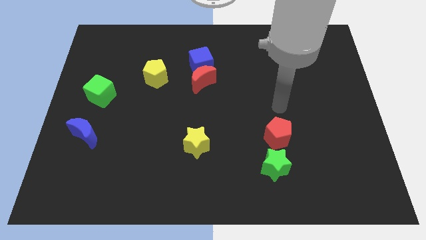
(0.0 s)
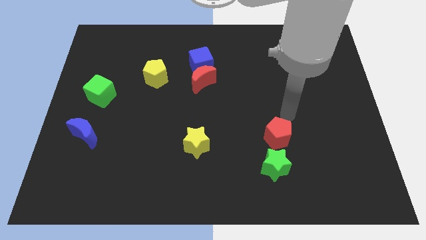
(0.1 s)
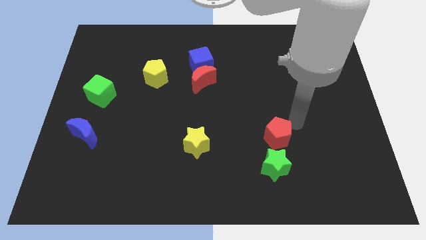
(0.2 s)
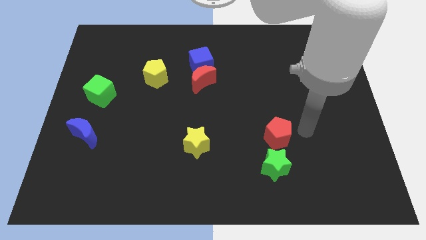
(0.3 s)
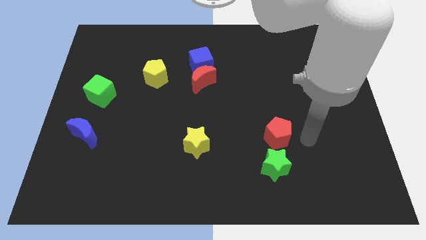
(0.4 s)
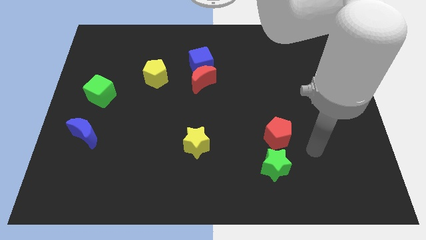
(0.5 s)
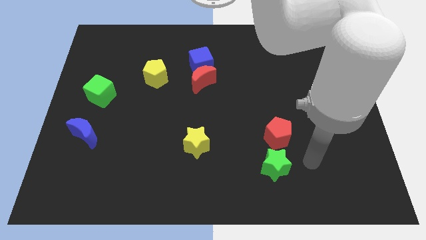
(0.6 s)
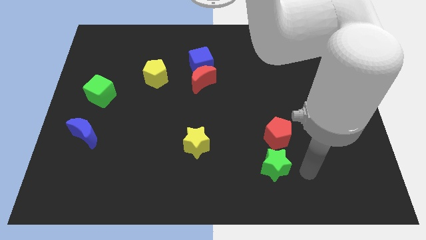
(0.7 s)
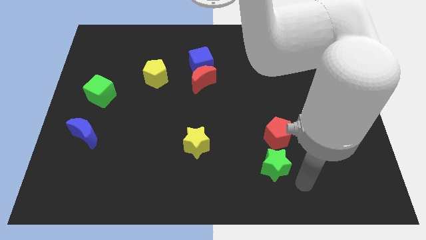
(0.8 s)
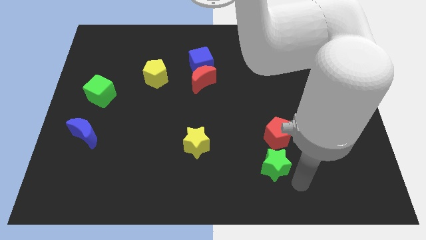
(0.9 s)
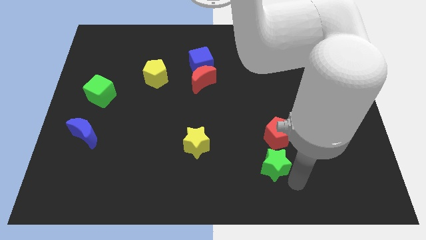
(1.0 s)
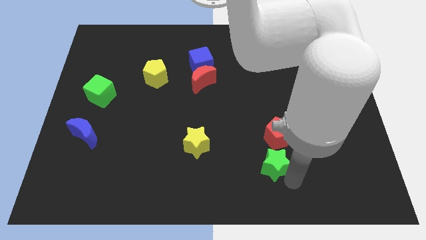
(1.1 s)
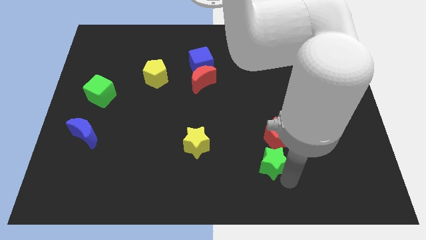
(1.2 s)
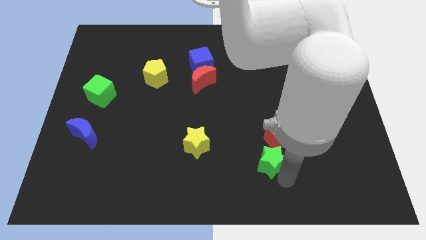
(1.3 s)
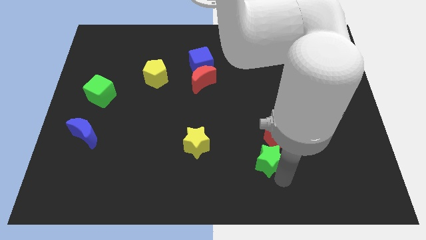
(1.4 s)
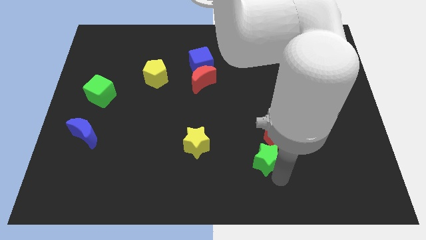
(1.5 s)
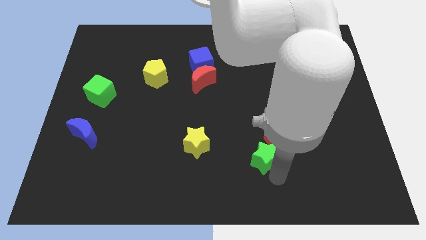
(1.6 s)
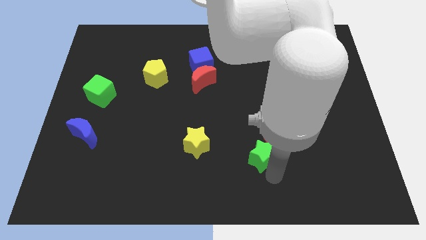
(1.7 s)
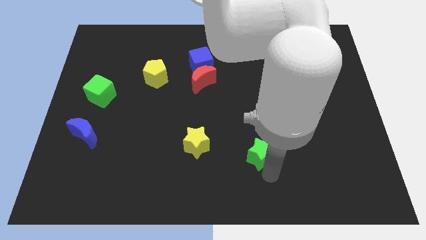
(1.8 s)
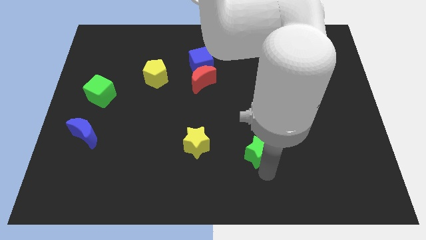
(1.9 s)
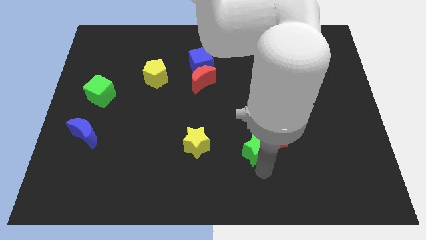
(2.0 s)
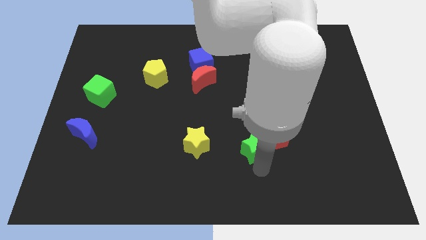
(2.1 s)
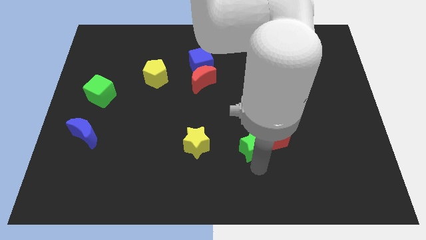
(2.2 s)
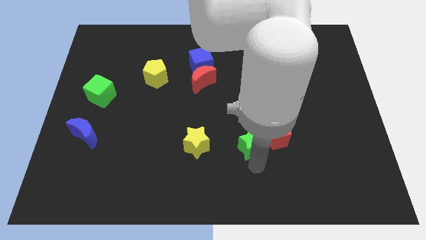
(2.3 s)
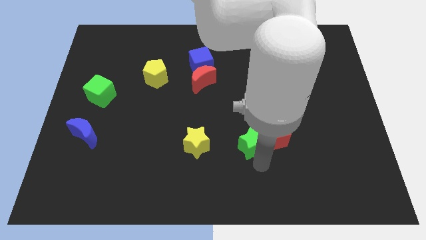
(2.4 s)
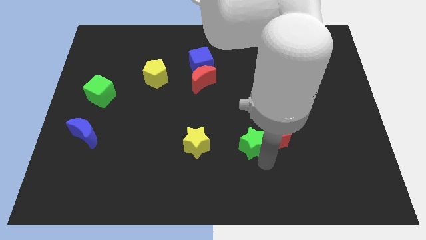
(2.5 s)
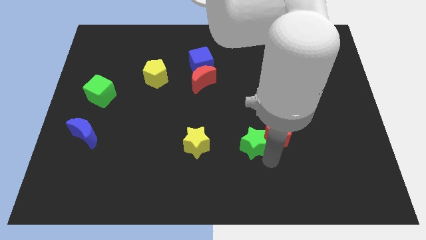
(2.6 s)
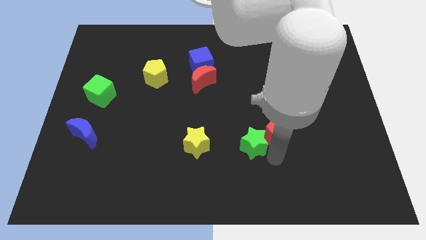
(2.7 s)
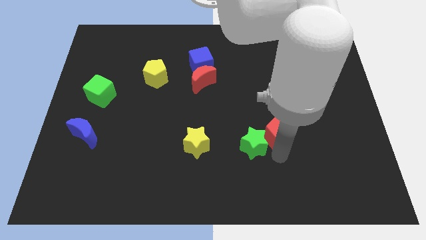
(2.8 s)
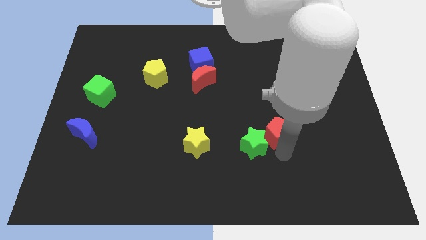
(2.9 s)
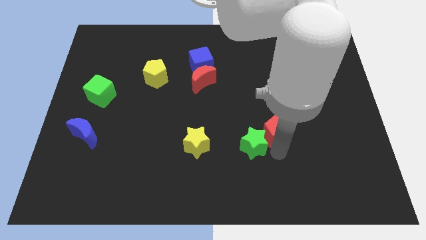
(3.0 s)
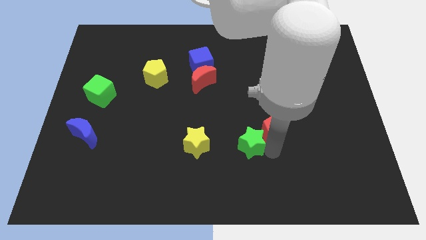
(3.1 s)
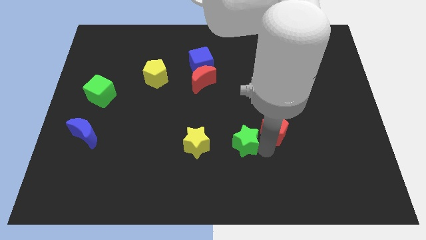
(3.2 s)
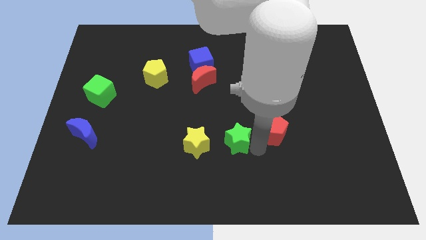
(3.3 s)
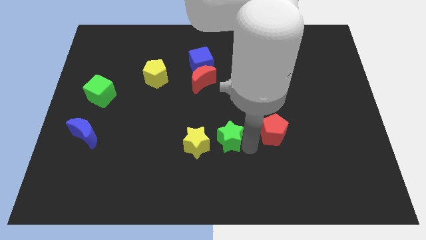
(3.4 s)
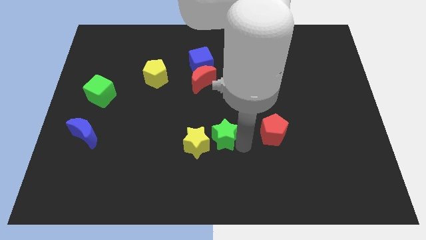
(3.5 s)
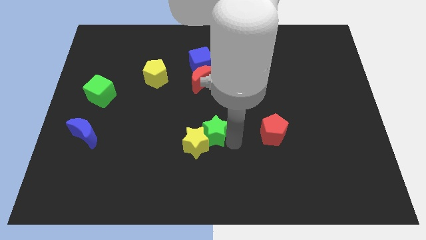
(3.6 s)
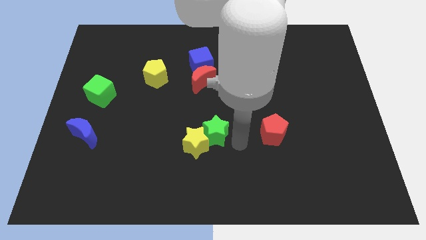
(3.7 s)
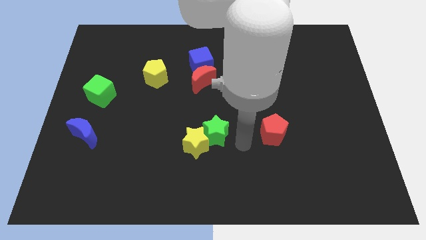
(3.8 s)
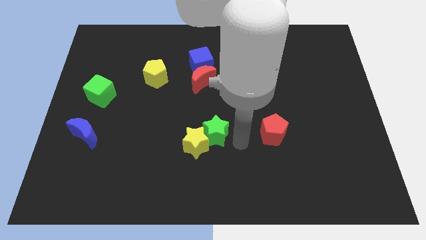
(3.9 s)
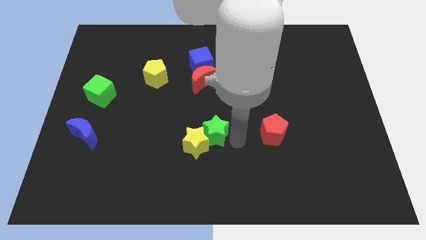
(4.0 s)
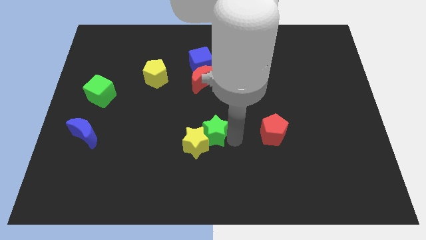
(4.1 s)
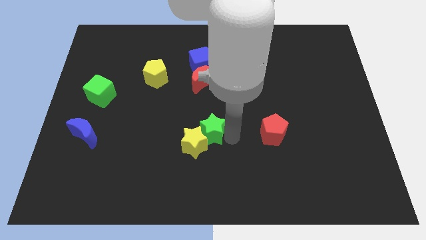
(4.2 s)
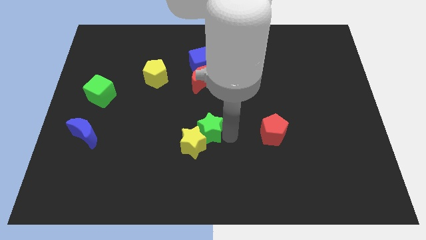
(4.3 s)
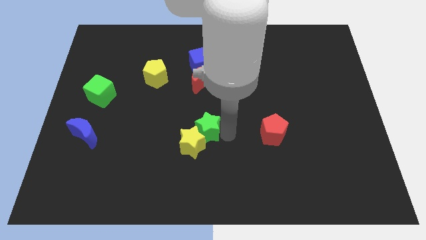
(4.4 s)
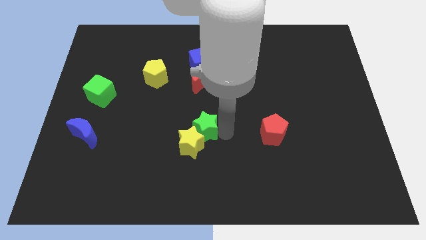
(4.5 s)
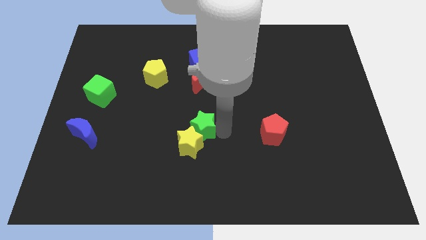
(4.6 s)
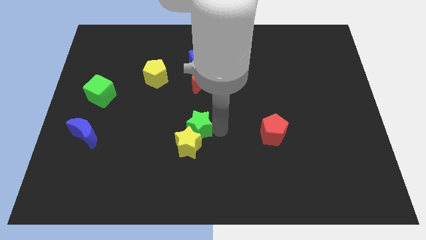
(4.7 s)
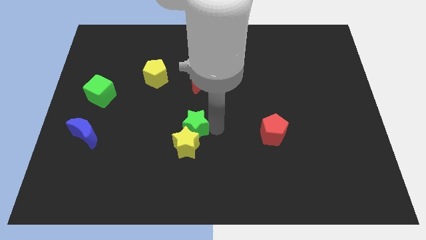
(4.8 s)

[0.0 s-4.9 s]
put the green star diagonally up and to the left of the yellow star

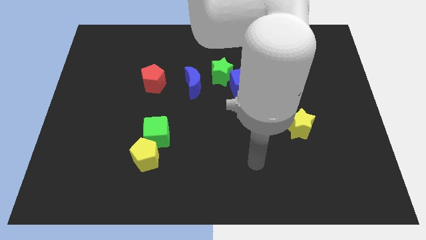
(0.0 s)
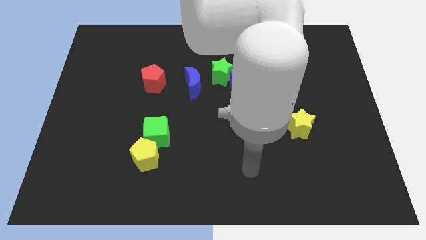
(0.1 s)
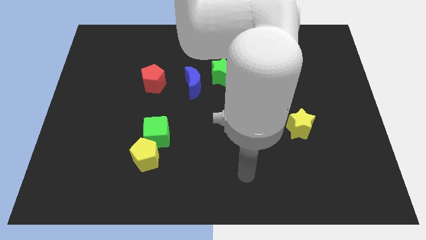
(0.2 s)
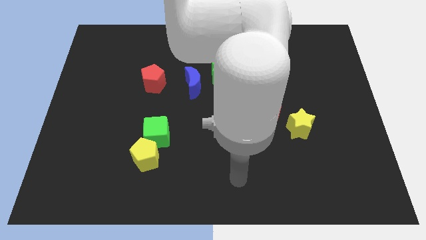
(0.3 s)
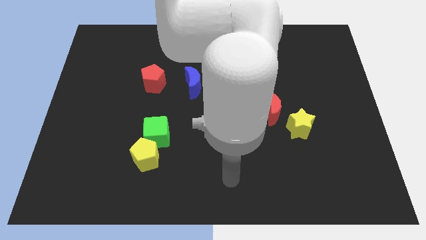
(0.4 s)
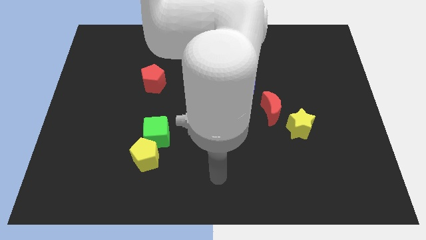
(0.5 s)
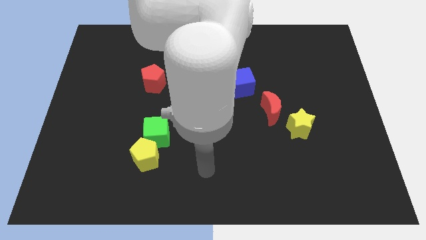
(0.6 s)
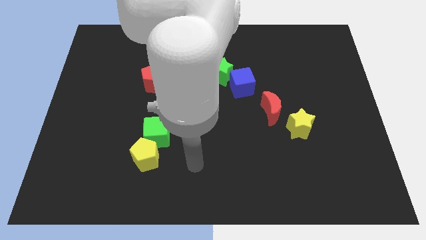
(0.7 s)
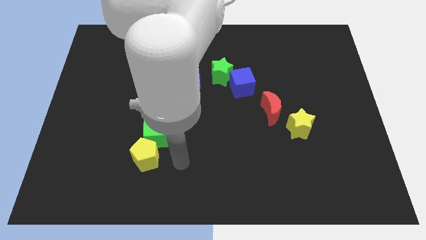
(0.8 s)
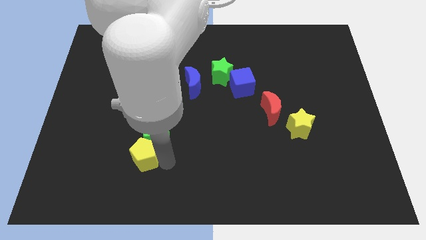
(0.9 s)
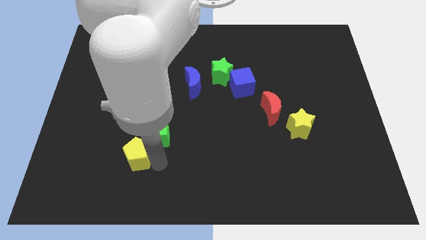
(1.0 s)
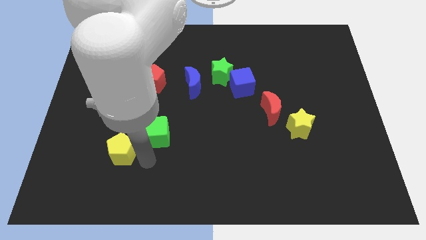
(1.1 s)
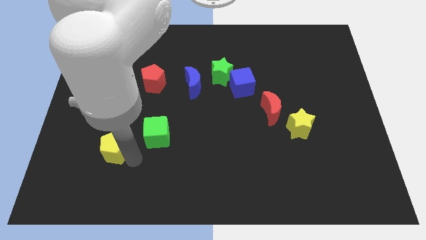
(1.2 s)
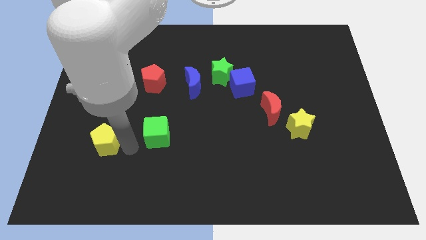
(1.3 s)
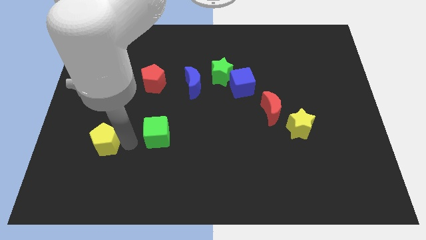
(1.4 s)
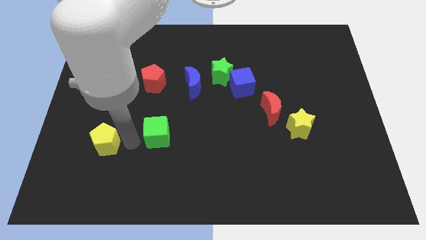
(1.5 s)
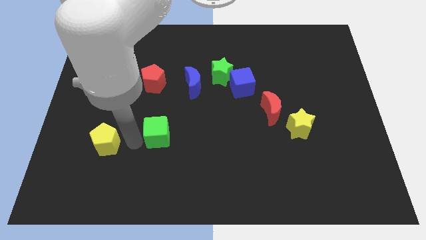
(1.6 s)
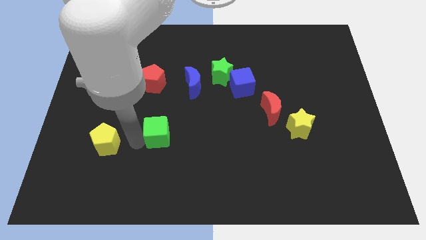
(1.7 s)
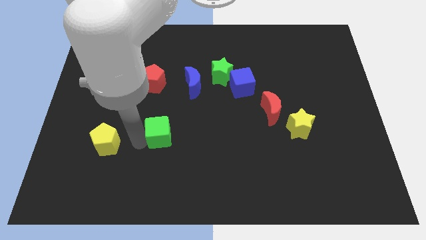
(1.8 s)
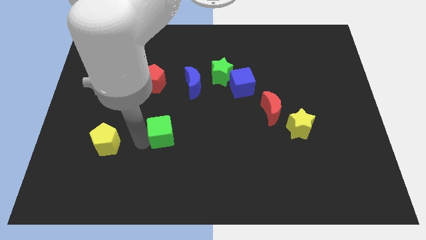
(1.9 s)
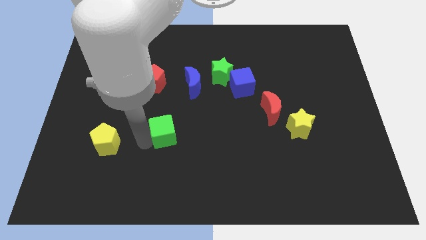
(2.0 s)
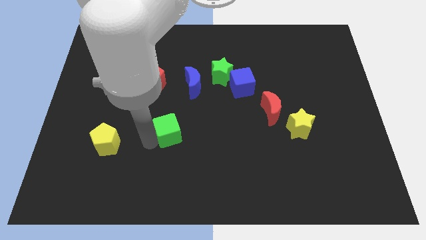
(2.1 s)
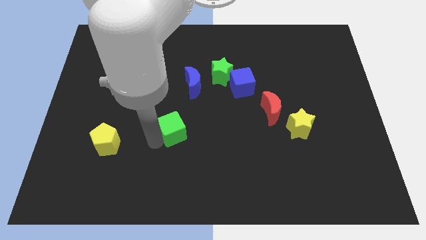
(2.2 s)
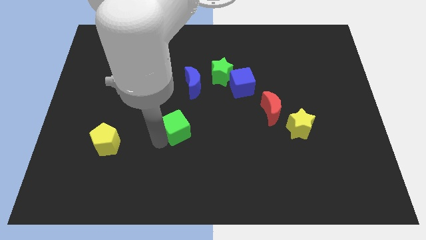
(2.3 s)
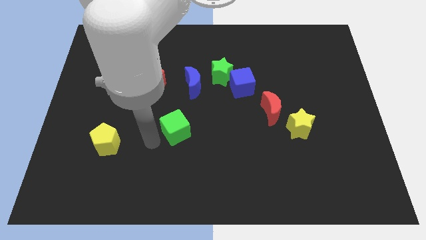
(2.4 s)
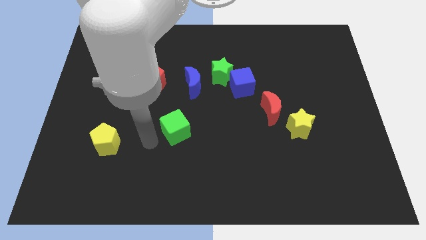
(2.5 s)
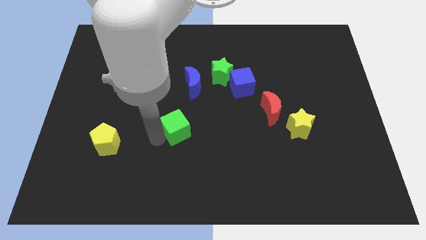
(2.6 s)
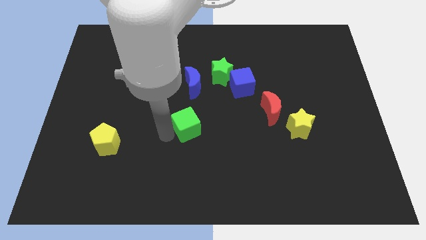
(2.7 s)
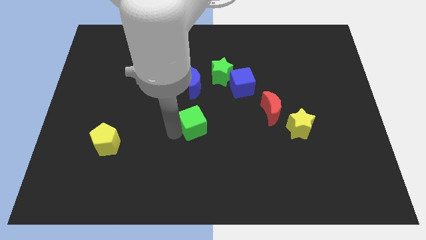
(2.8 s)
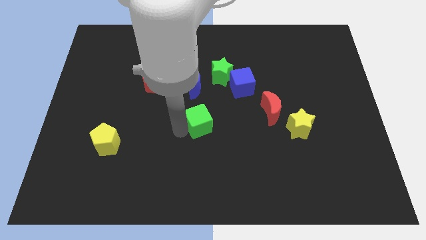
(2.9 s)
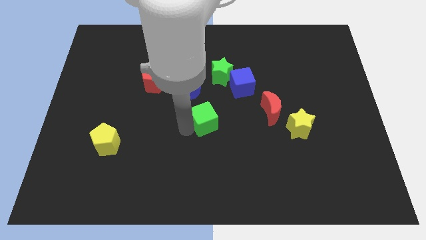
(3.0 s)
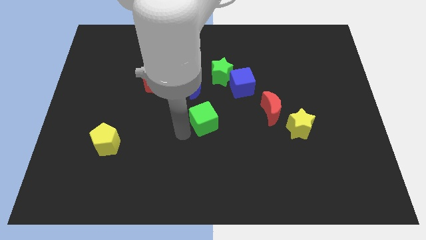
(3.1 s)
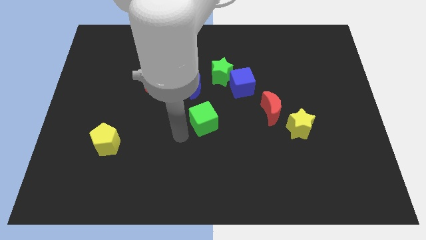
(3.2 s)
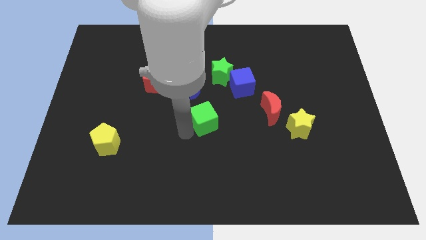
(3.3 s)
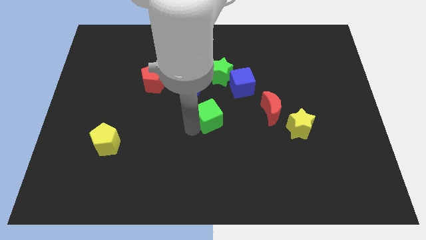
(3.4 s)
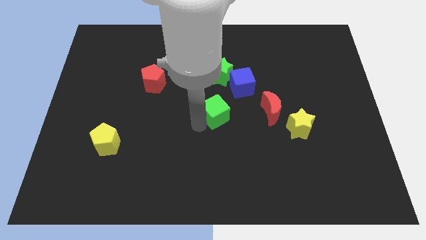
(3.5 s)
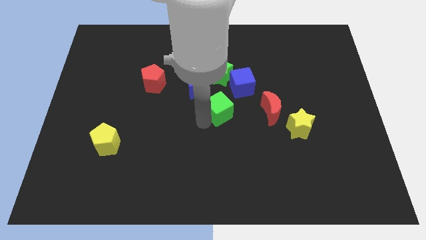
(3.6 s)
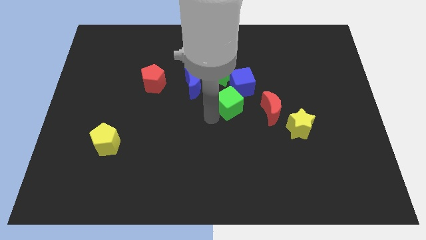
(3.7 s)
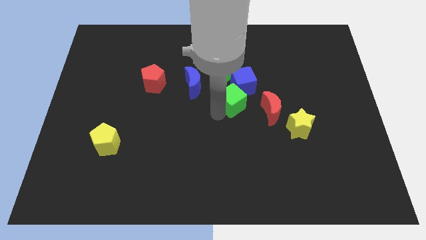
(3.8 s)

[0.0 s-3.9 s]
slide the green cube to the bottom right of the green star
